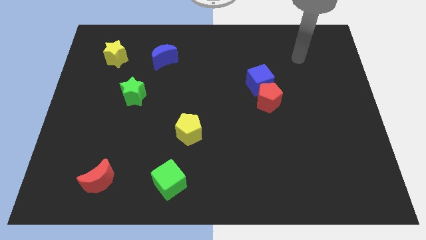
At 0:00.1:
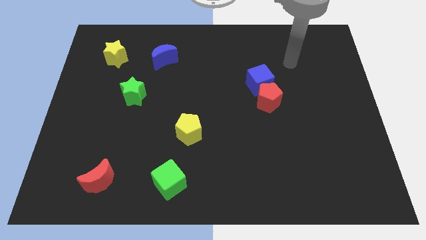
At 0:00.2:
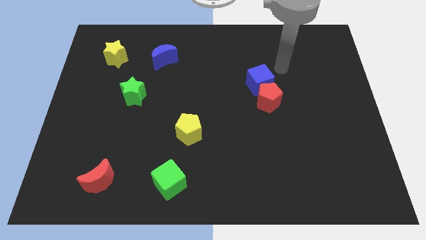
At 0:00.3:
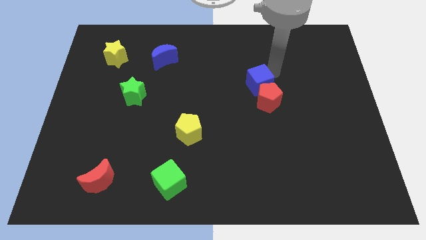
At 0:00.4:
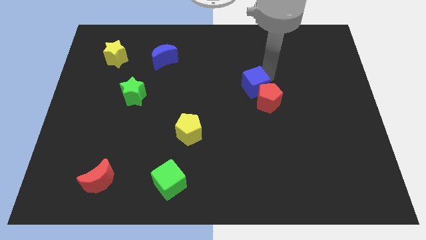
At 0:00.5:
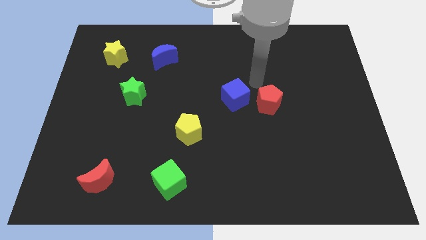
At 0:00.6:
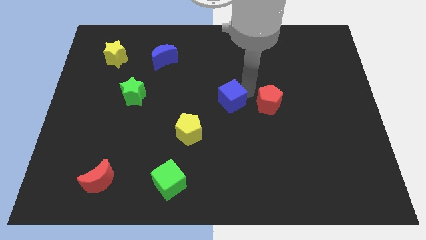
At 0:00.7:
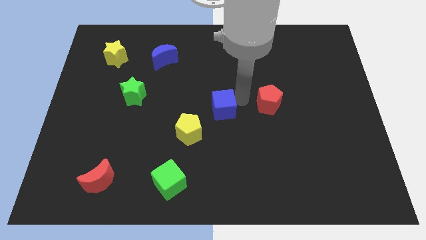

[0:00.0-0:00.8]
move the red pentagon away from the blue cube

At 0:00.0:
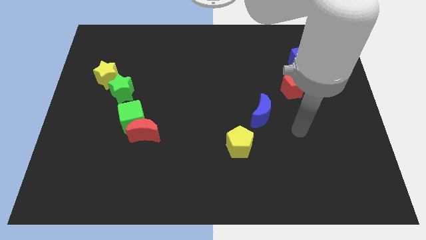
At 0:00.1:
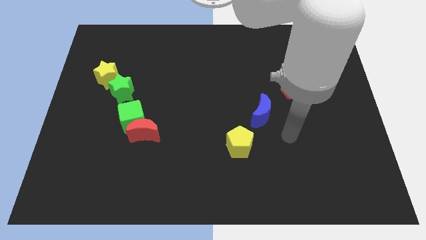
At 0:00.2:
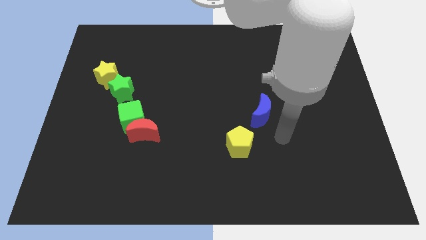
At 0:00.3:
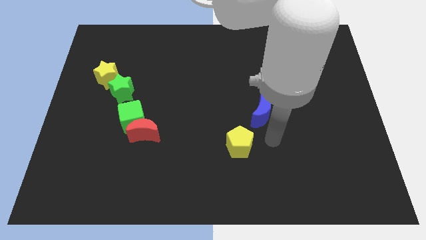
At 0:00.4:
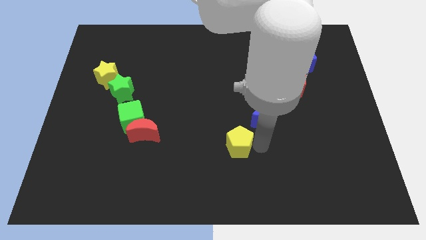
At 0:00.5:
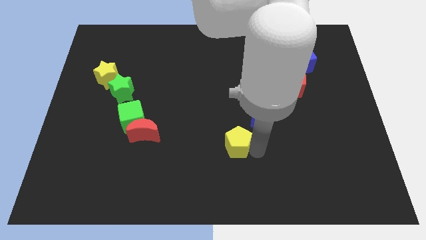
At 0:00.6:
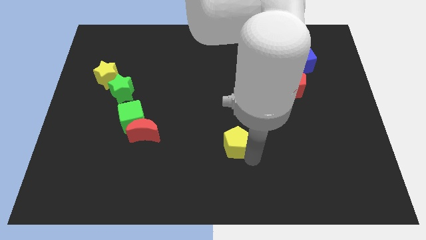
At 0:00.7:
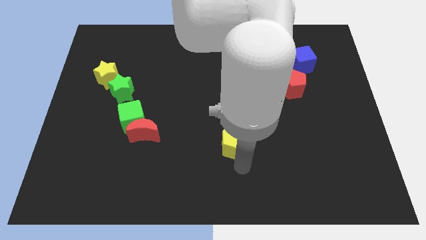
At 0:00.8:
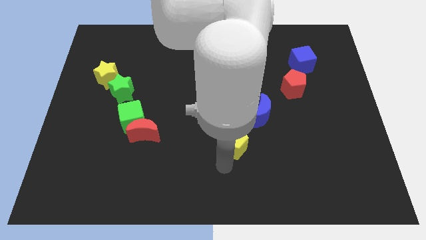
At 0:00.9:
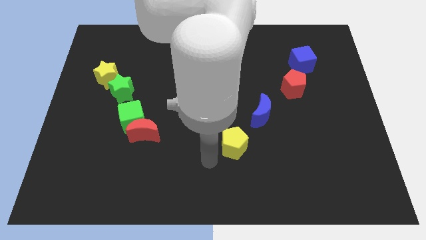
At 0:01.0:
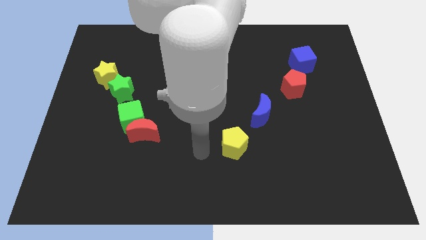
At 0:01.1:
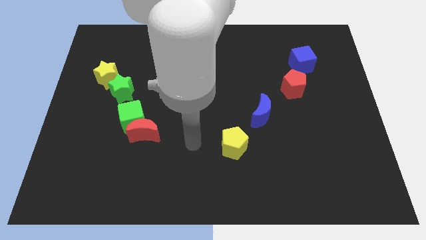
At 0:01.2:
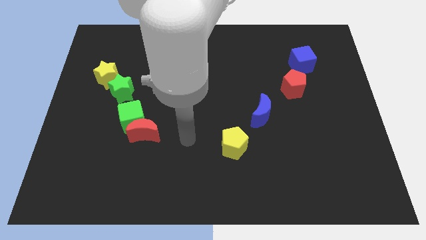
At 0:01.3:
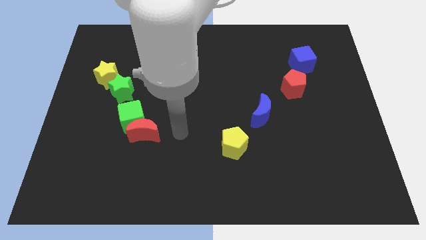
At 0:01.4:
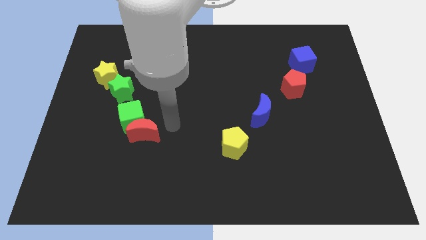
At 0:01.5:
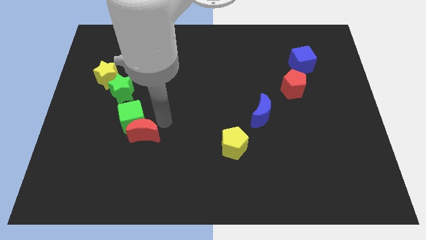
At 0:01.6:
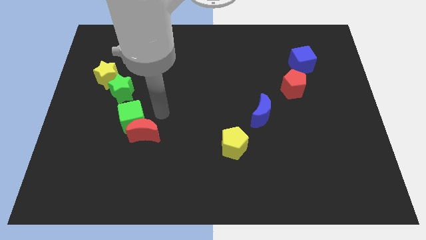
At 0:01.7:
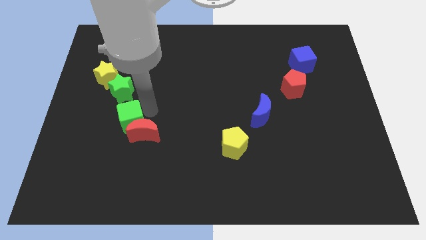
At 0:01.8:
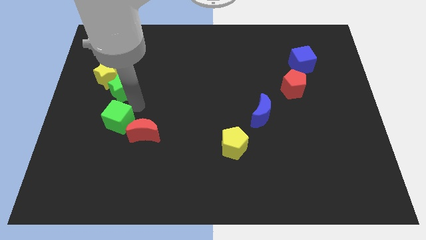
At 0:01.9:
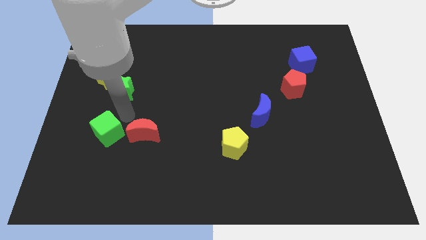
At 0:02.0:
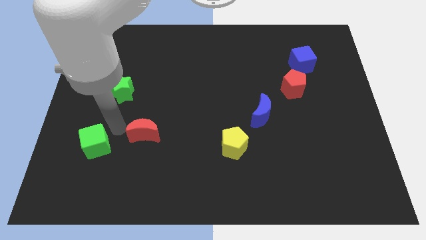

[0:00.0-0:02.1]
move the red moon away from the green cube

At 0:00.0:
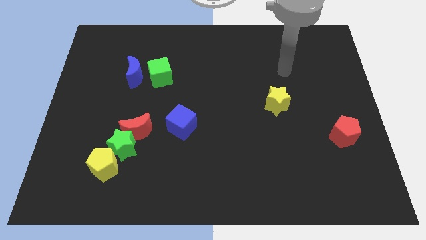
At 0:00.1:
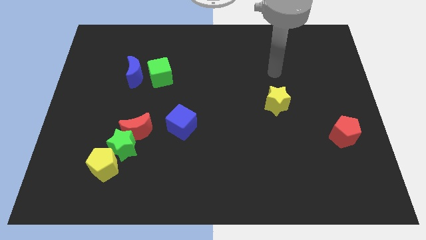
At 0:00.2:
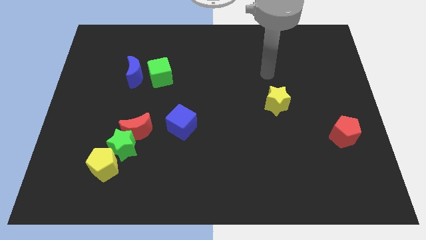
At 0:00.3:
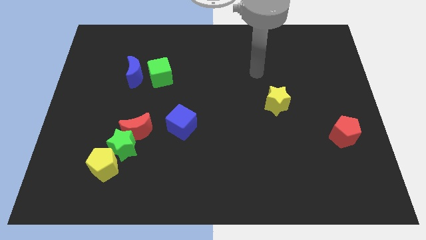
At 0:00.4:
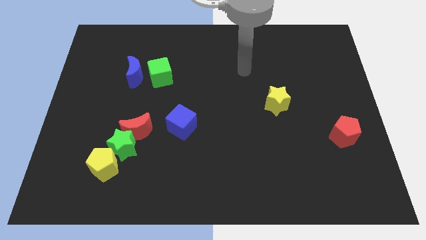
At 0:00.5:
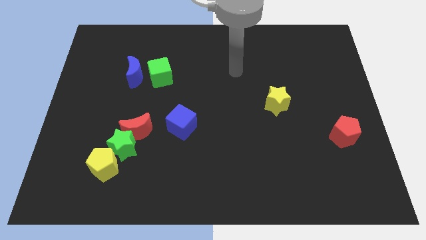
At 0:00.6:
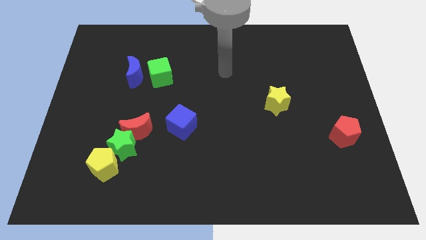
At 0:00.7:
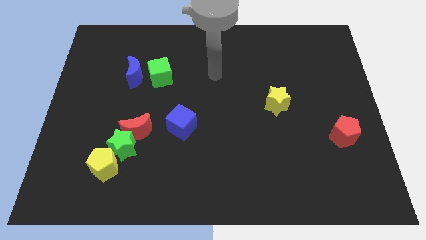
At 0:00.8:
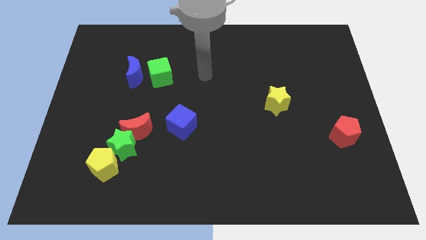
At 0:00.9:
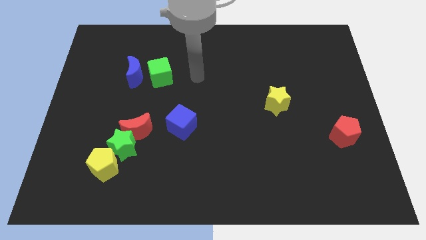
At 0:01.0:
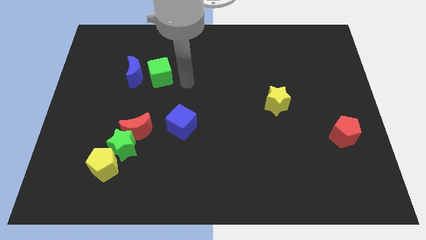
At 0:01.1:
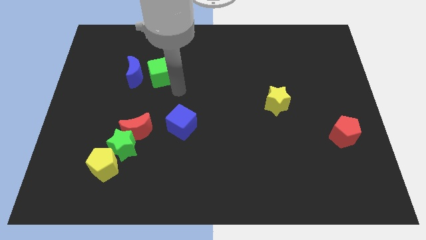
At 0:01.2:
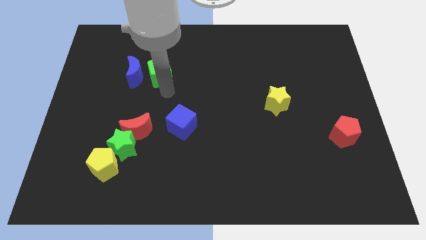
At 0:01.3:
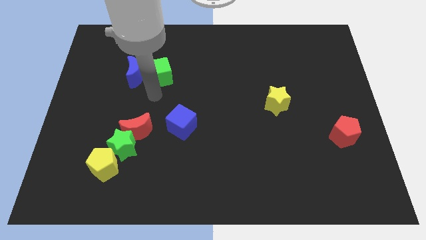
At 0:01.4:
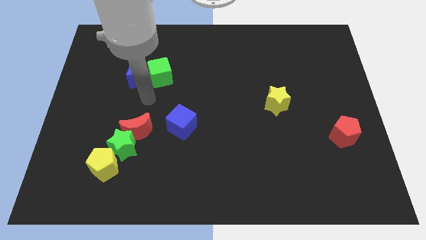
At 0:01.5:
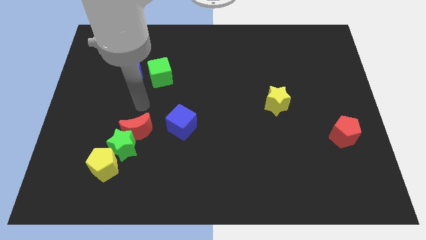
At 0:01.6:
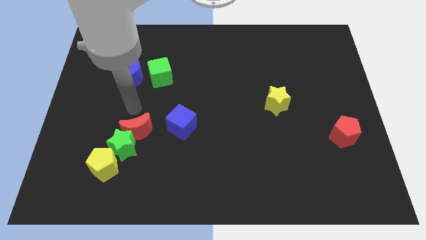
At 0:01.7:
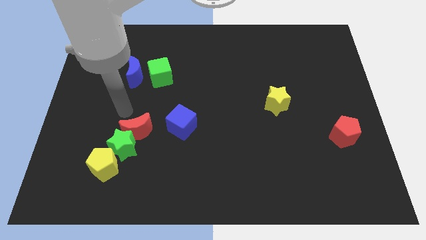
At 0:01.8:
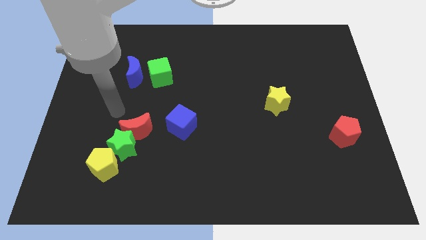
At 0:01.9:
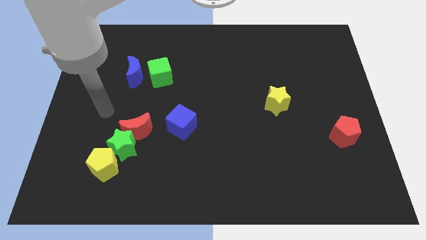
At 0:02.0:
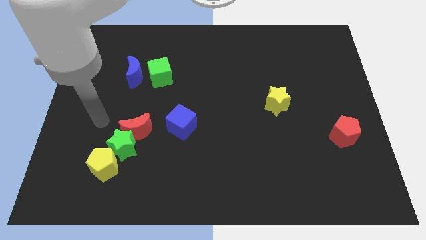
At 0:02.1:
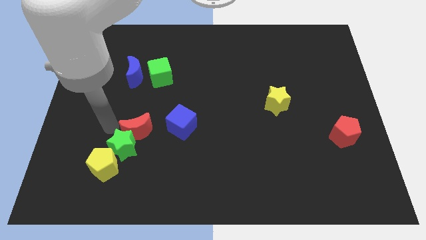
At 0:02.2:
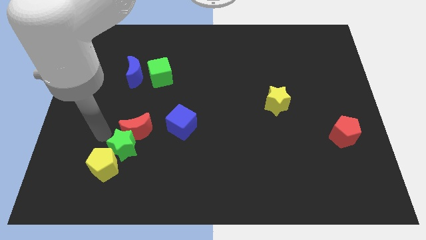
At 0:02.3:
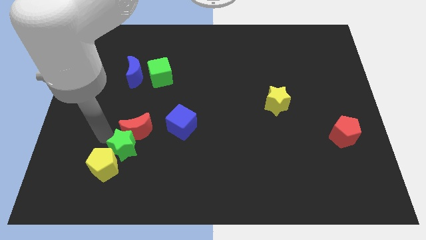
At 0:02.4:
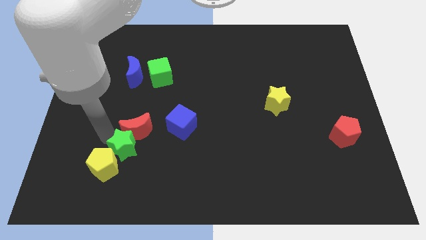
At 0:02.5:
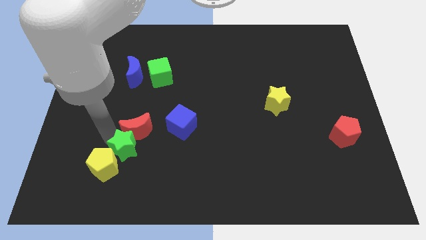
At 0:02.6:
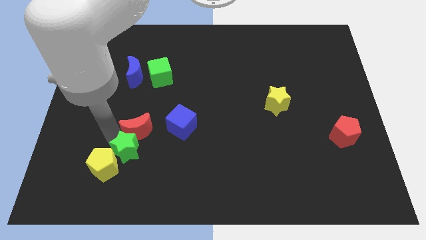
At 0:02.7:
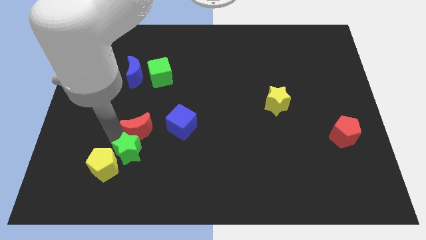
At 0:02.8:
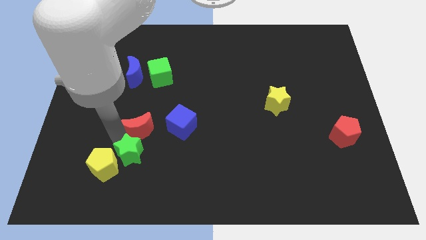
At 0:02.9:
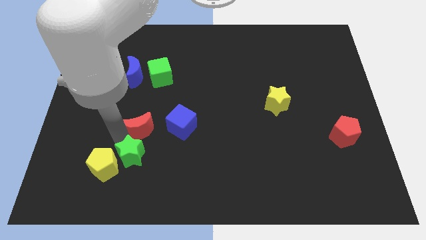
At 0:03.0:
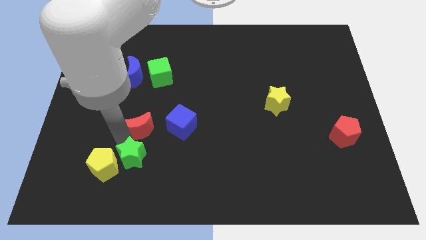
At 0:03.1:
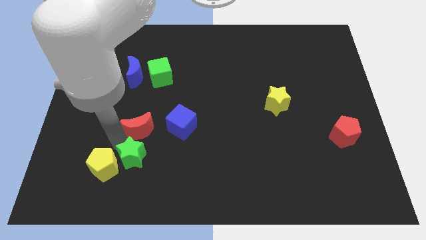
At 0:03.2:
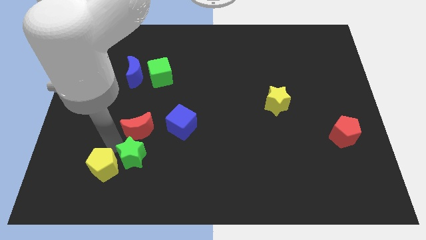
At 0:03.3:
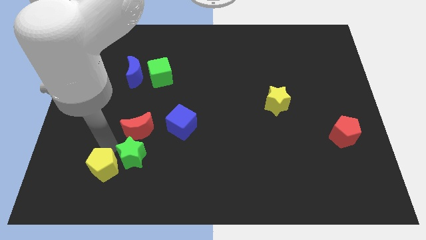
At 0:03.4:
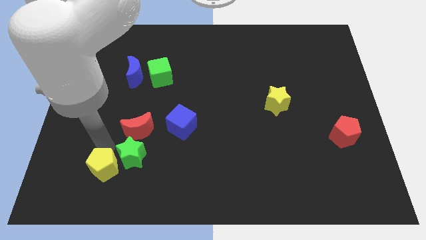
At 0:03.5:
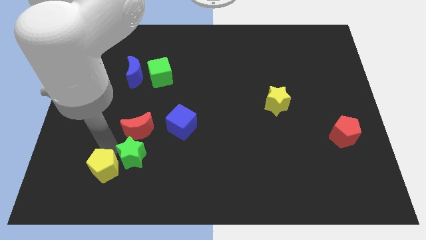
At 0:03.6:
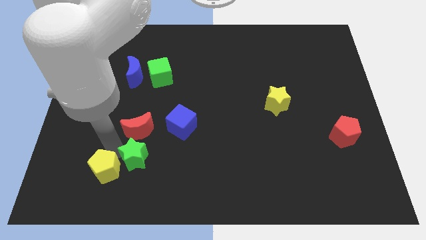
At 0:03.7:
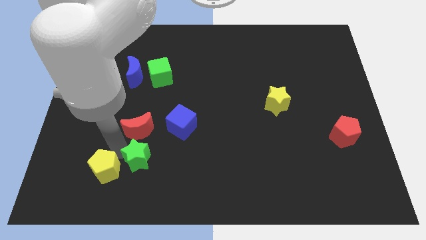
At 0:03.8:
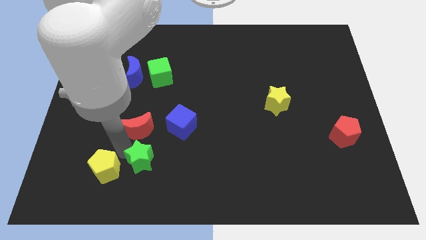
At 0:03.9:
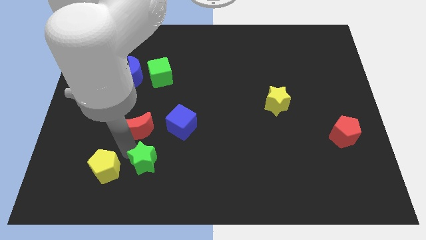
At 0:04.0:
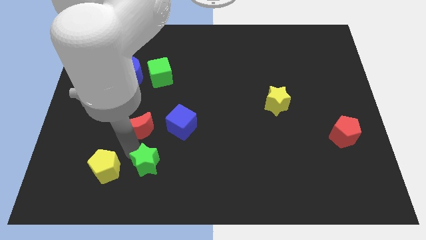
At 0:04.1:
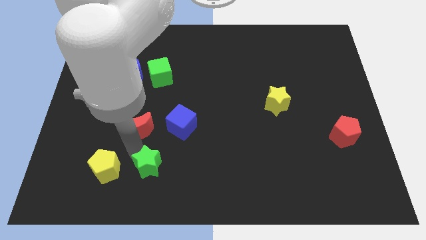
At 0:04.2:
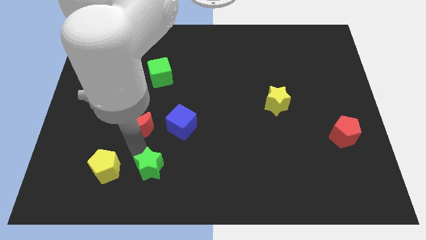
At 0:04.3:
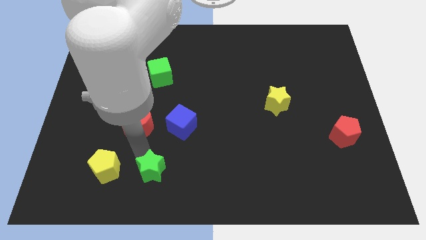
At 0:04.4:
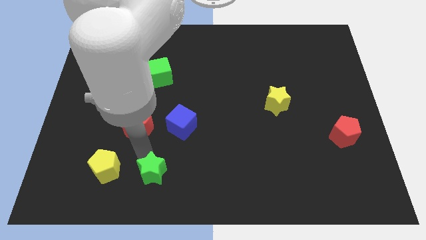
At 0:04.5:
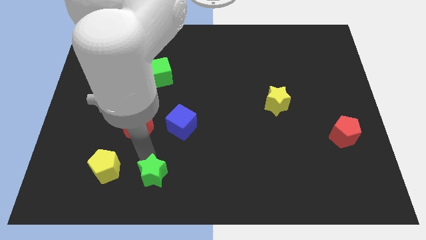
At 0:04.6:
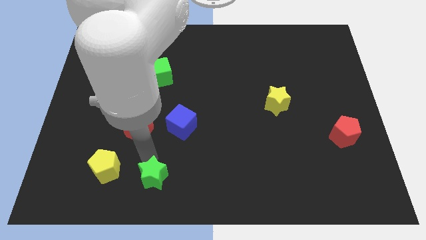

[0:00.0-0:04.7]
move the green star away from the red moon and yellow pentagon

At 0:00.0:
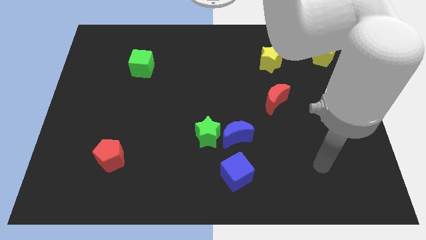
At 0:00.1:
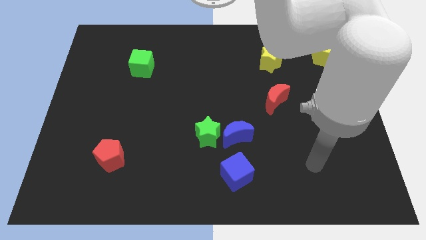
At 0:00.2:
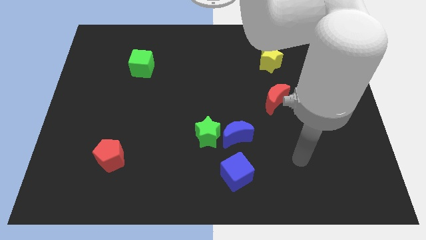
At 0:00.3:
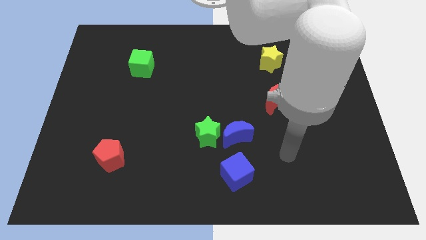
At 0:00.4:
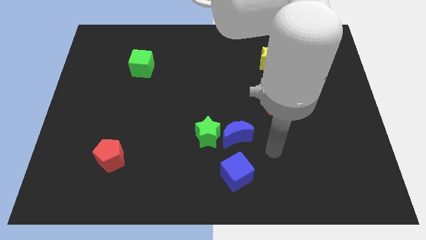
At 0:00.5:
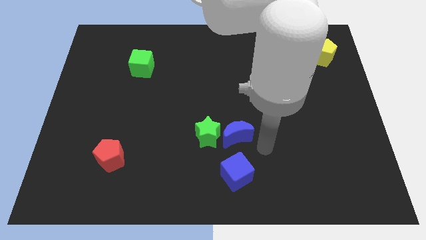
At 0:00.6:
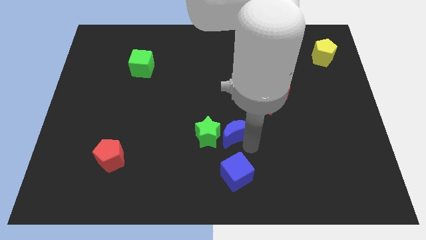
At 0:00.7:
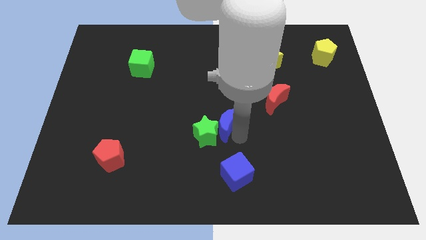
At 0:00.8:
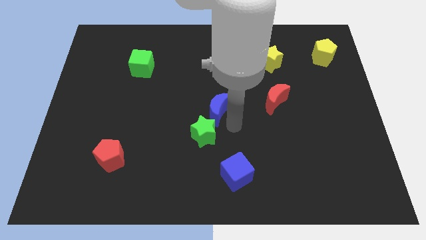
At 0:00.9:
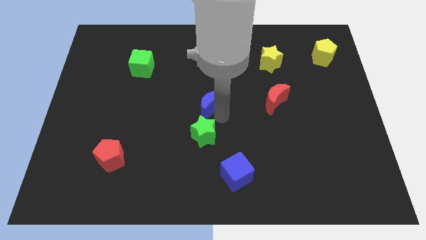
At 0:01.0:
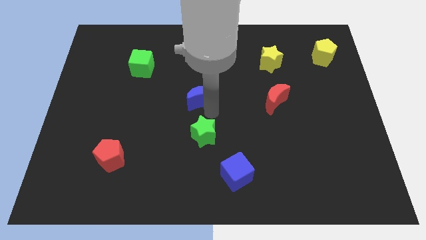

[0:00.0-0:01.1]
separate the green star from the blue moon

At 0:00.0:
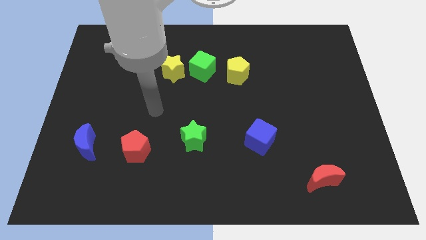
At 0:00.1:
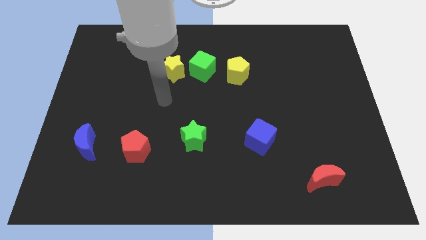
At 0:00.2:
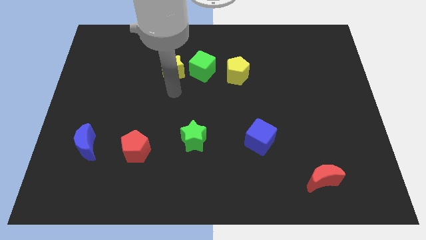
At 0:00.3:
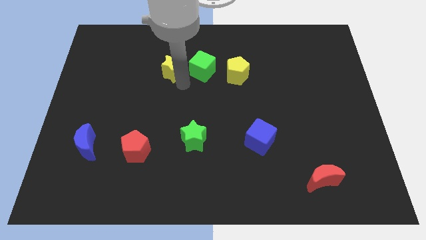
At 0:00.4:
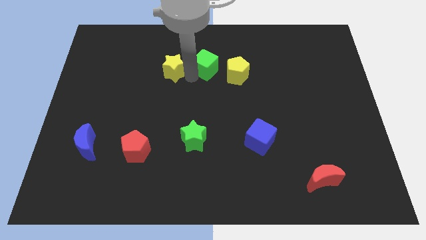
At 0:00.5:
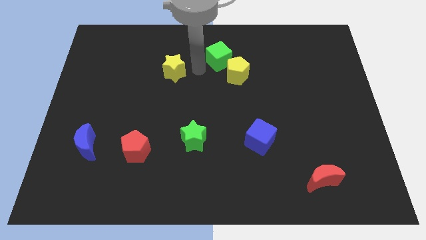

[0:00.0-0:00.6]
separate the yellow star from the green cube
